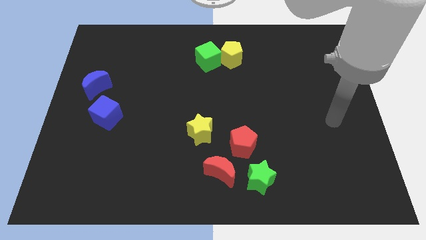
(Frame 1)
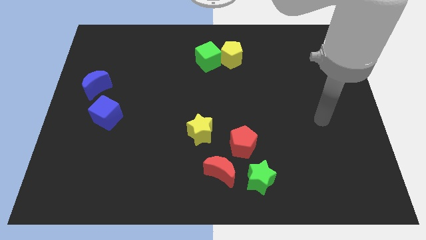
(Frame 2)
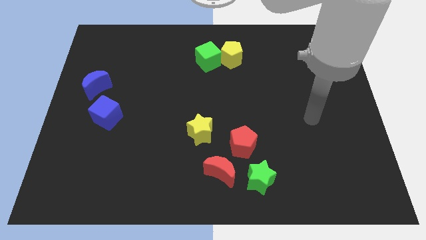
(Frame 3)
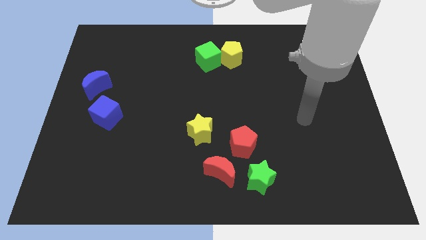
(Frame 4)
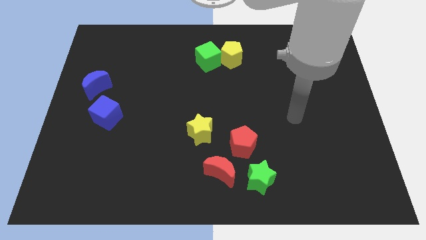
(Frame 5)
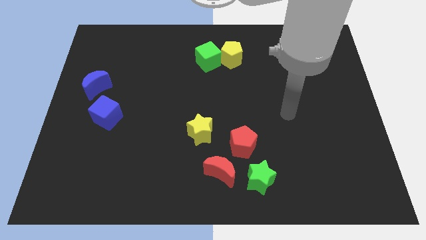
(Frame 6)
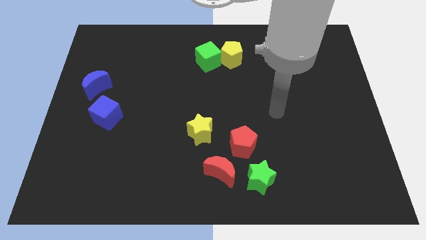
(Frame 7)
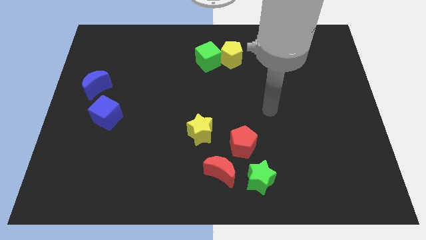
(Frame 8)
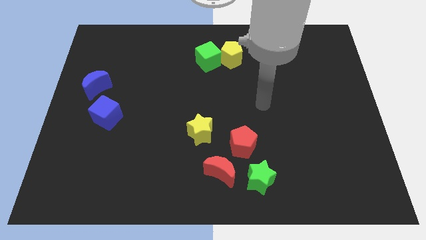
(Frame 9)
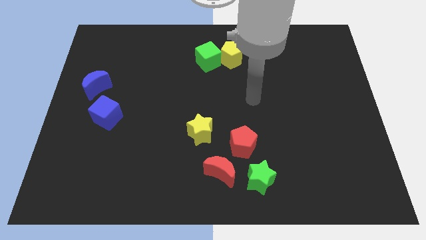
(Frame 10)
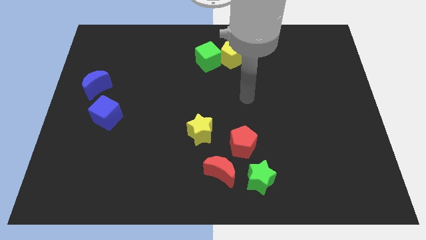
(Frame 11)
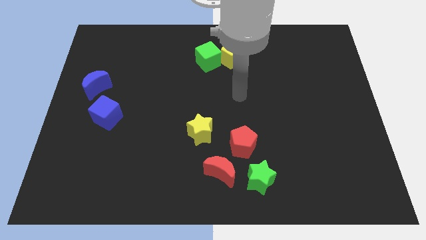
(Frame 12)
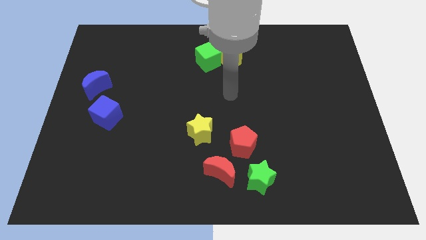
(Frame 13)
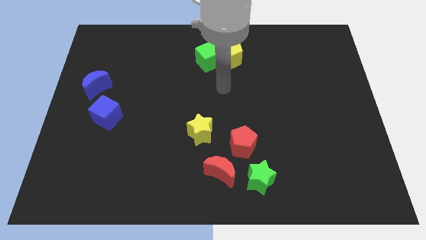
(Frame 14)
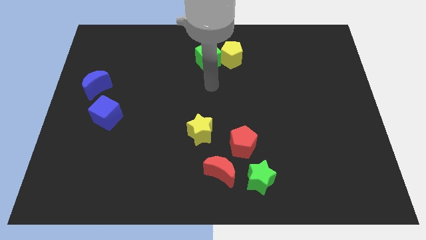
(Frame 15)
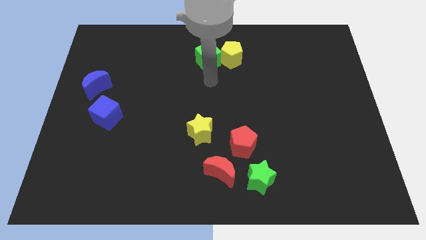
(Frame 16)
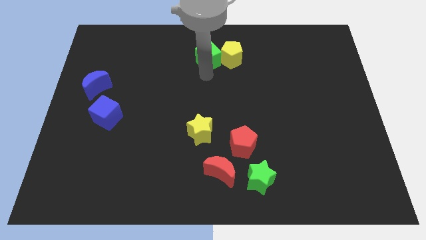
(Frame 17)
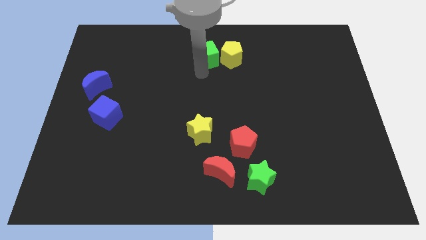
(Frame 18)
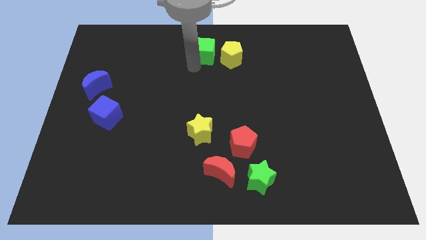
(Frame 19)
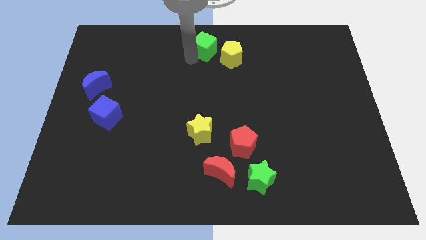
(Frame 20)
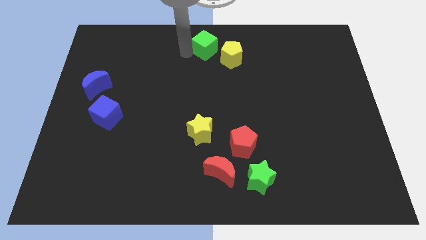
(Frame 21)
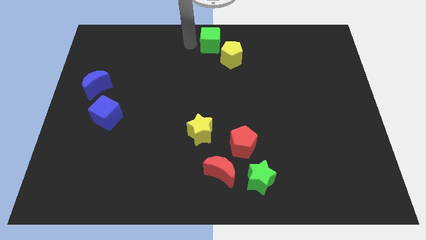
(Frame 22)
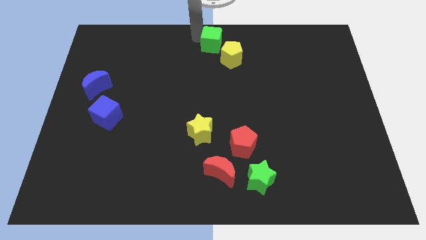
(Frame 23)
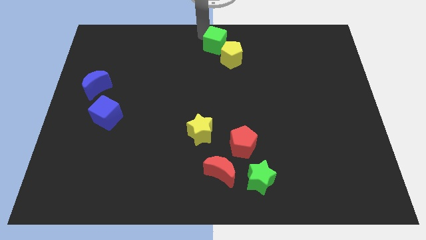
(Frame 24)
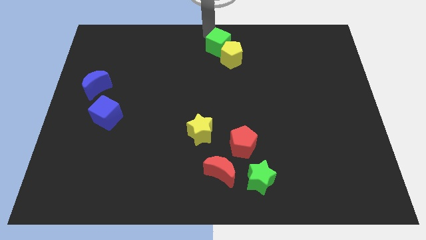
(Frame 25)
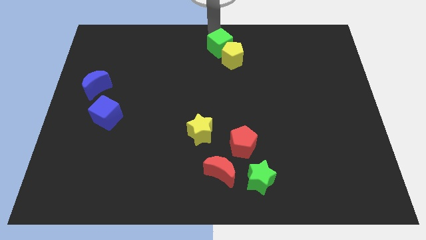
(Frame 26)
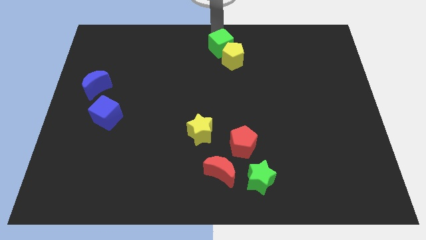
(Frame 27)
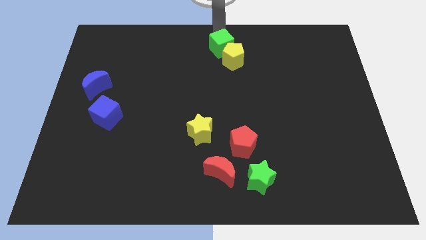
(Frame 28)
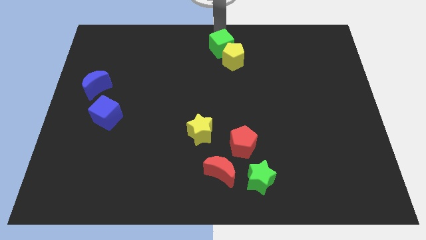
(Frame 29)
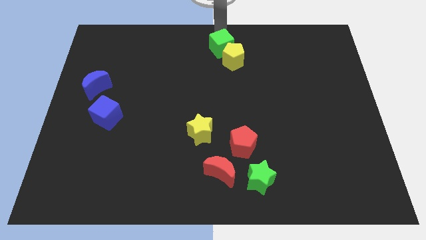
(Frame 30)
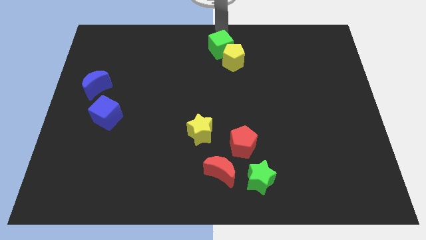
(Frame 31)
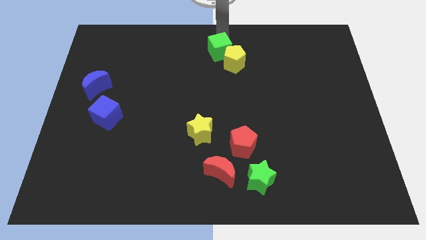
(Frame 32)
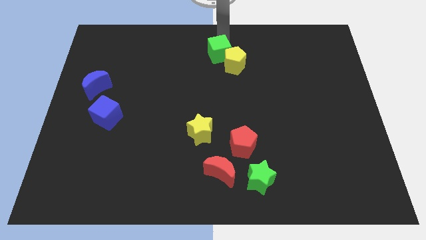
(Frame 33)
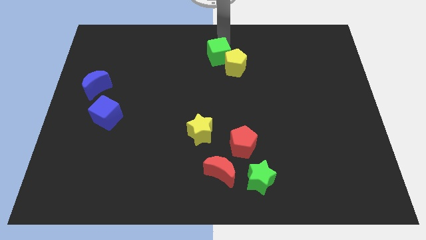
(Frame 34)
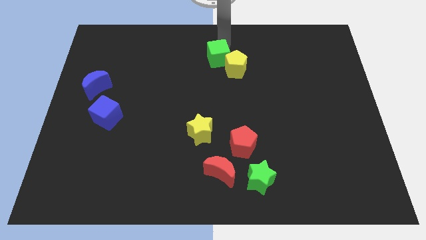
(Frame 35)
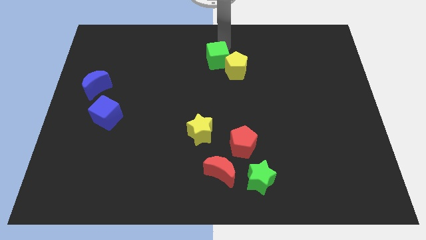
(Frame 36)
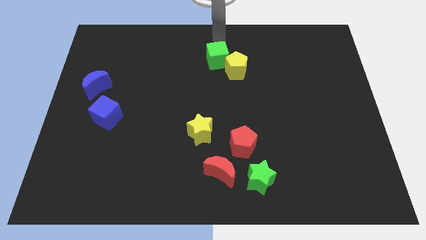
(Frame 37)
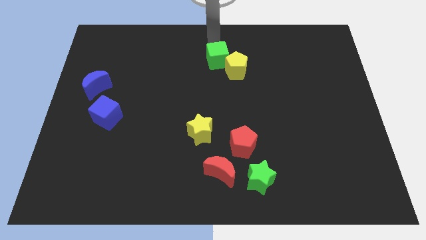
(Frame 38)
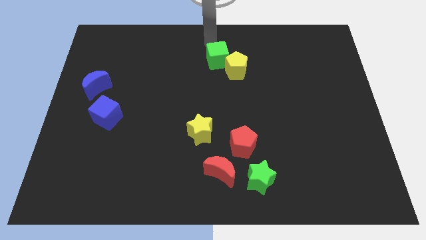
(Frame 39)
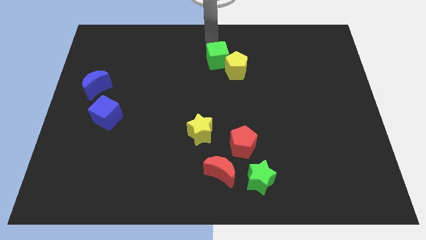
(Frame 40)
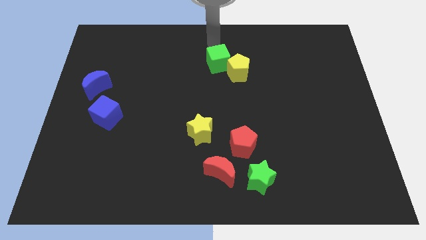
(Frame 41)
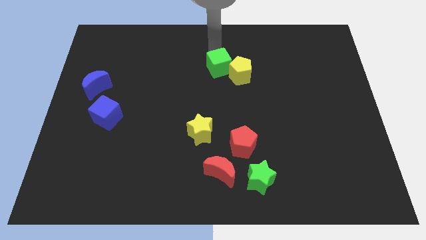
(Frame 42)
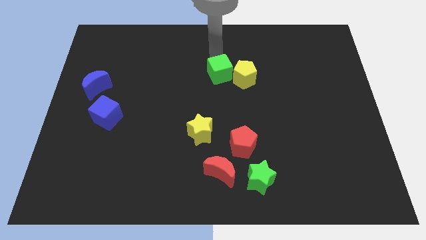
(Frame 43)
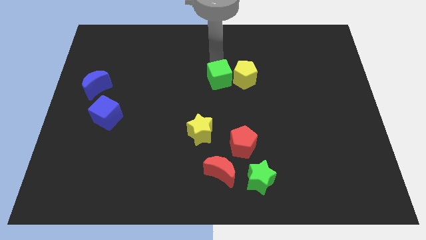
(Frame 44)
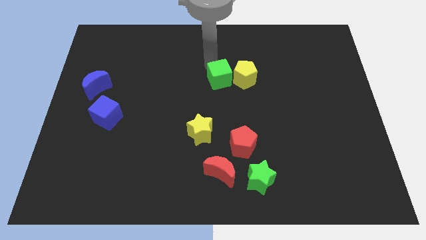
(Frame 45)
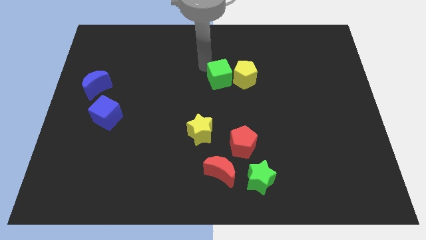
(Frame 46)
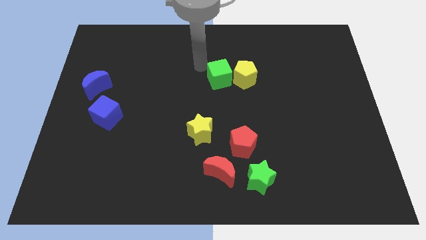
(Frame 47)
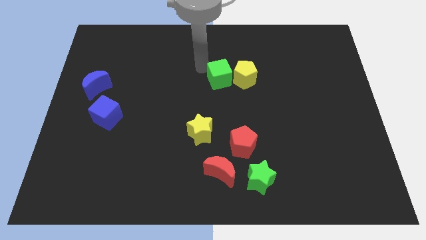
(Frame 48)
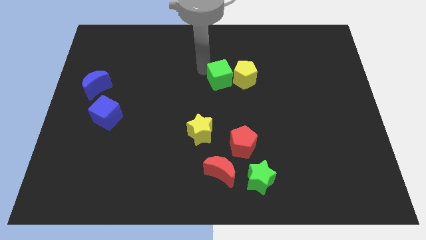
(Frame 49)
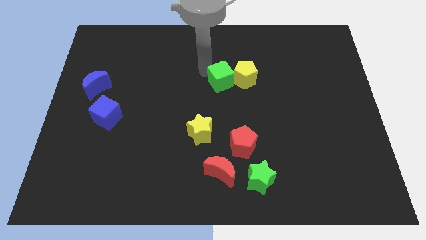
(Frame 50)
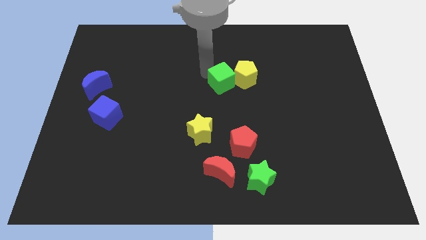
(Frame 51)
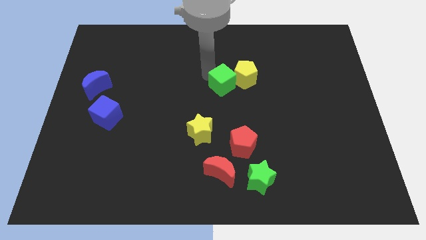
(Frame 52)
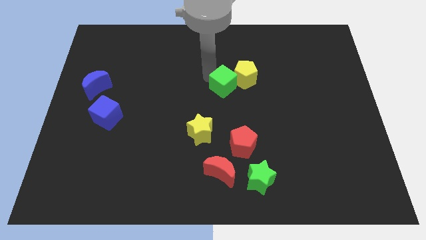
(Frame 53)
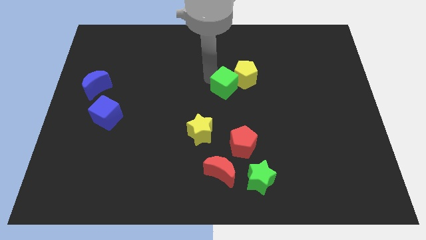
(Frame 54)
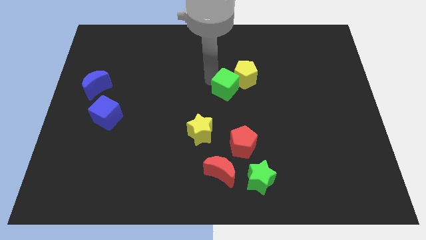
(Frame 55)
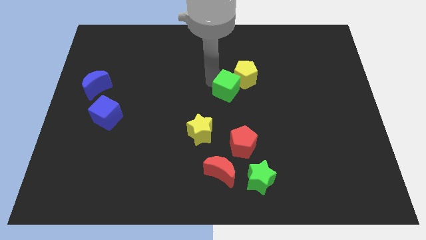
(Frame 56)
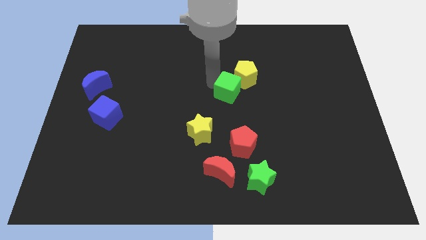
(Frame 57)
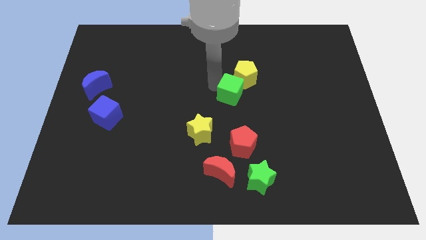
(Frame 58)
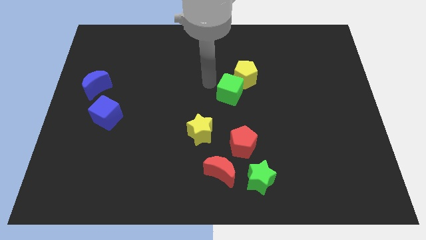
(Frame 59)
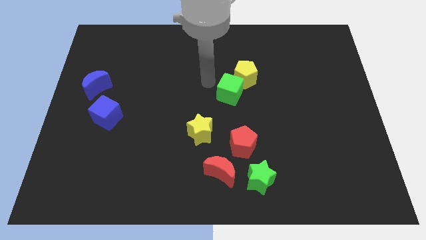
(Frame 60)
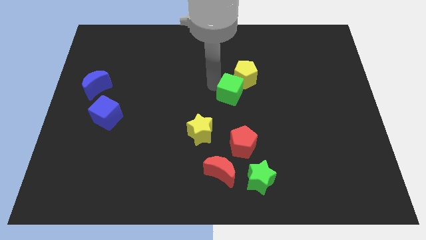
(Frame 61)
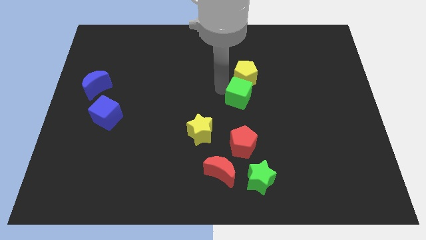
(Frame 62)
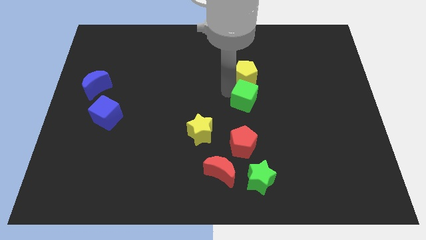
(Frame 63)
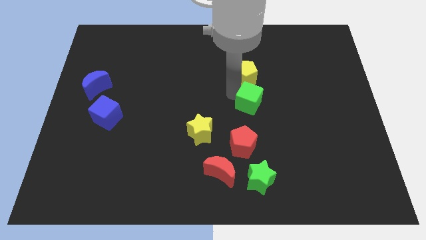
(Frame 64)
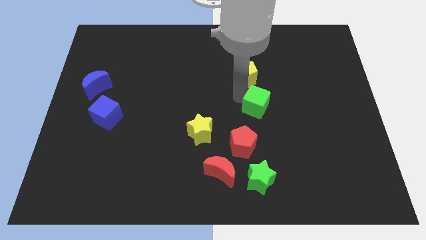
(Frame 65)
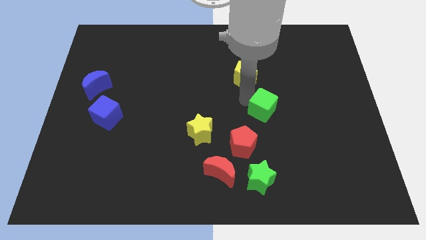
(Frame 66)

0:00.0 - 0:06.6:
slide the green cube downwards and right

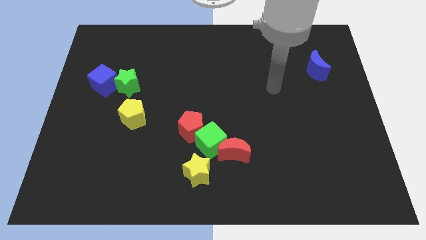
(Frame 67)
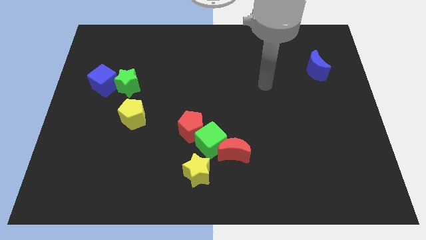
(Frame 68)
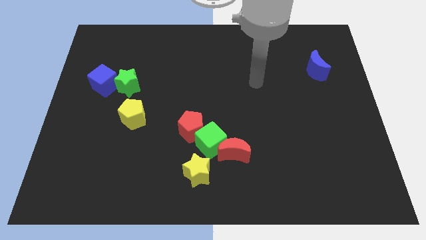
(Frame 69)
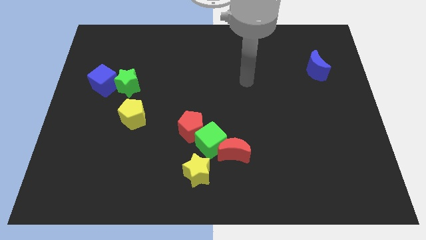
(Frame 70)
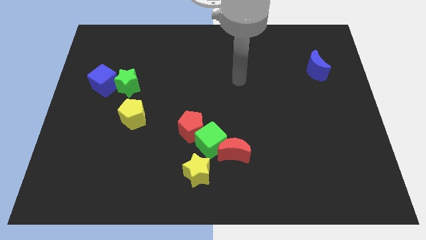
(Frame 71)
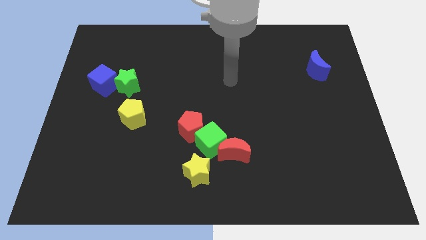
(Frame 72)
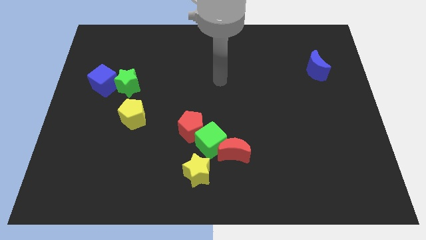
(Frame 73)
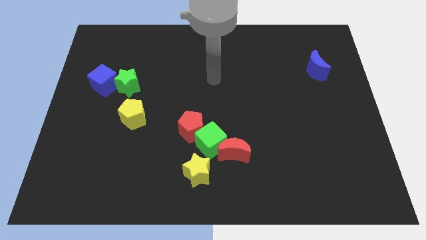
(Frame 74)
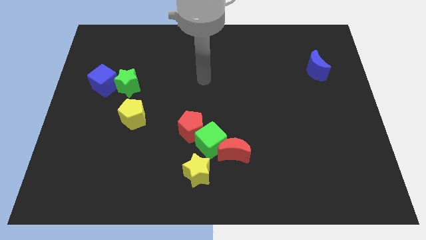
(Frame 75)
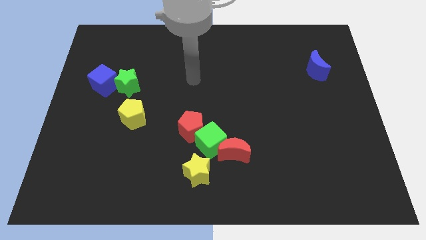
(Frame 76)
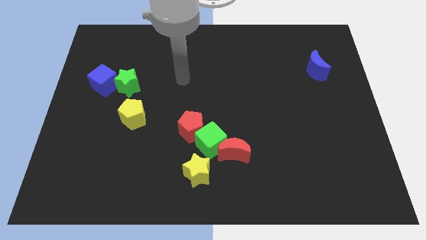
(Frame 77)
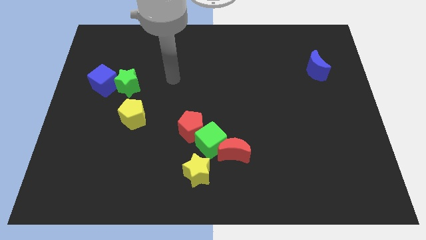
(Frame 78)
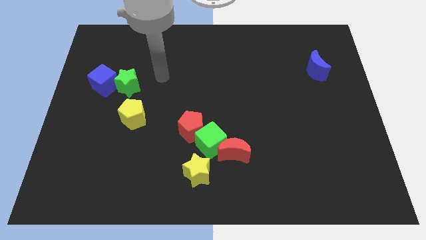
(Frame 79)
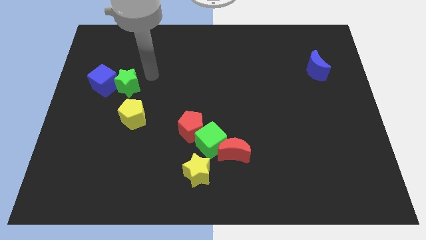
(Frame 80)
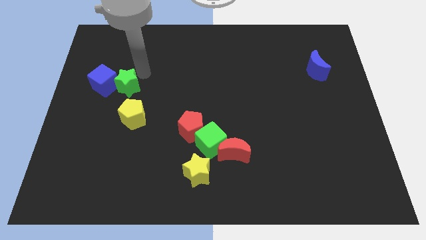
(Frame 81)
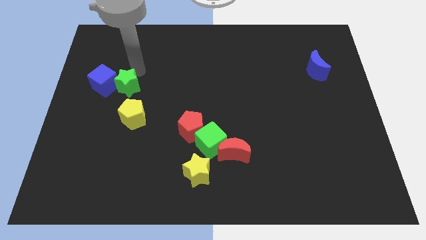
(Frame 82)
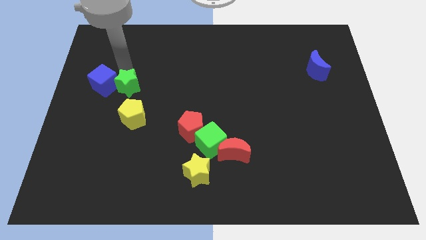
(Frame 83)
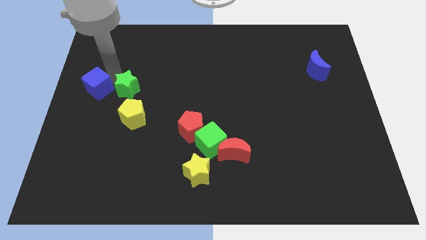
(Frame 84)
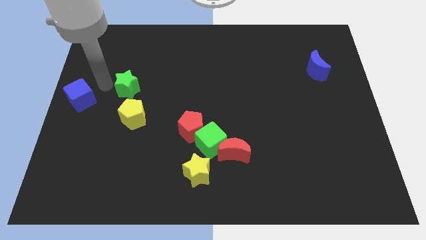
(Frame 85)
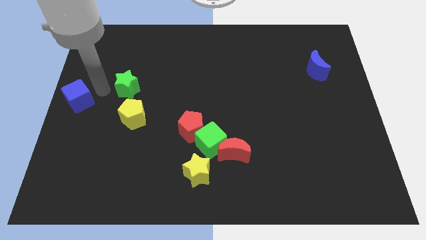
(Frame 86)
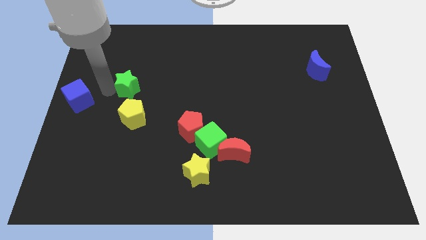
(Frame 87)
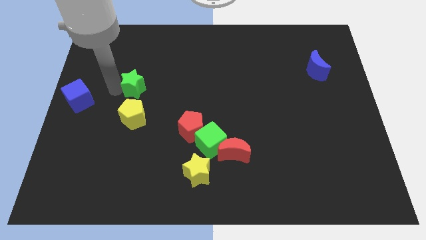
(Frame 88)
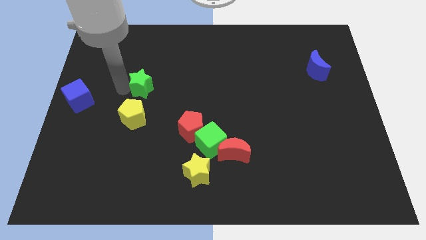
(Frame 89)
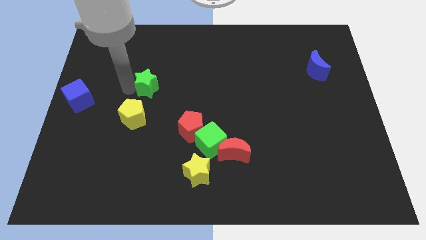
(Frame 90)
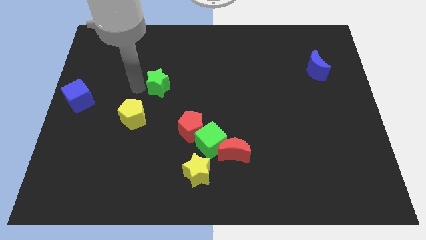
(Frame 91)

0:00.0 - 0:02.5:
move the green star right a little
